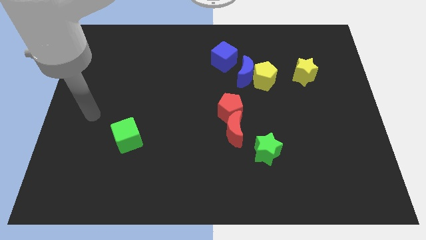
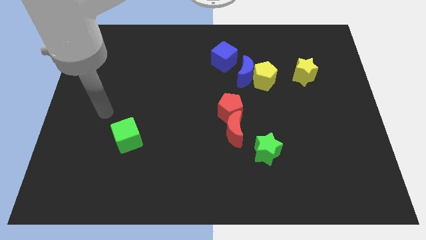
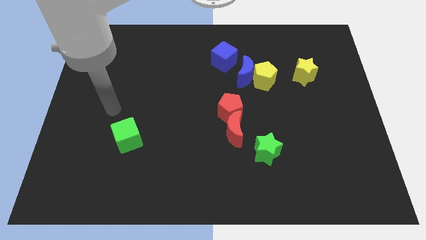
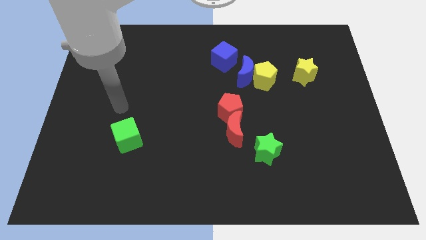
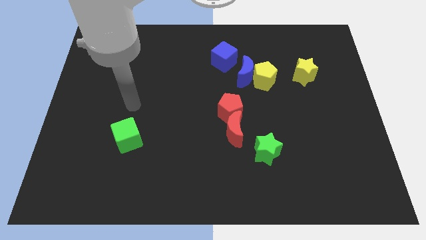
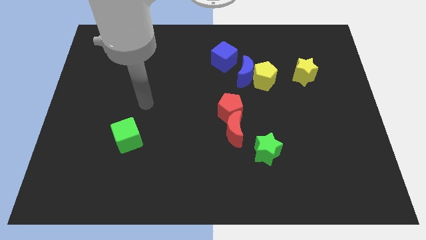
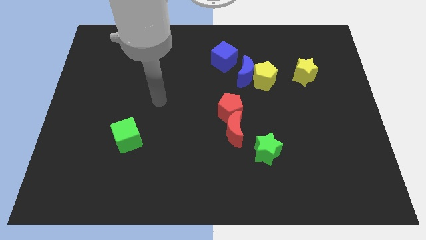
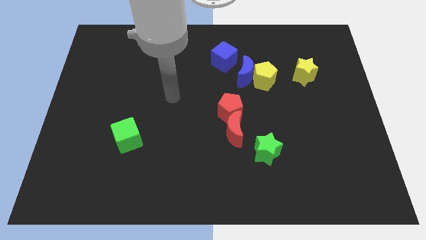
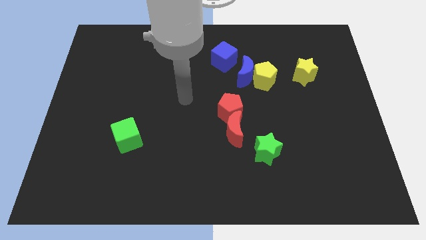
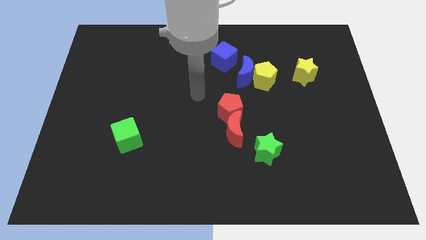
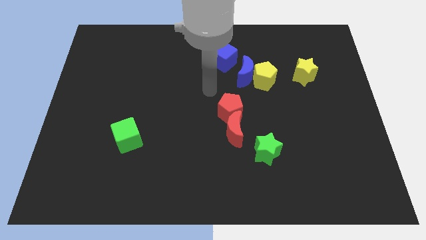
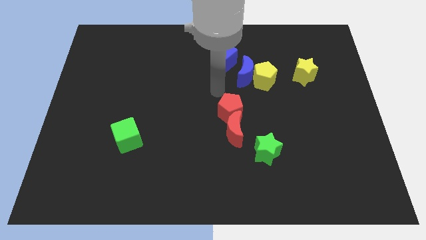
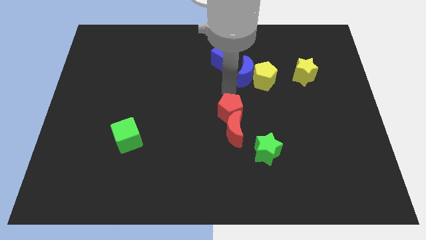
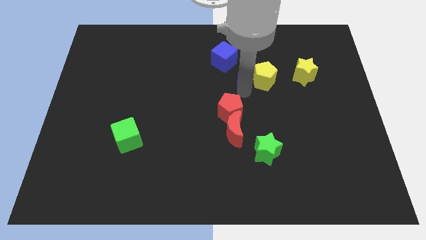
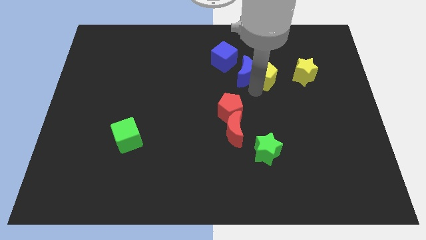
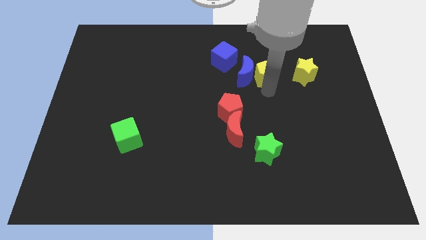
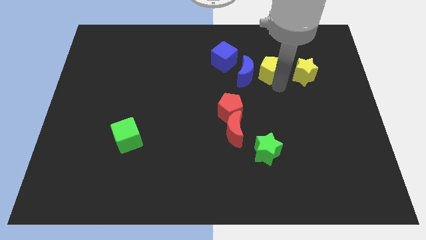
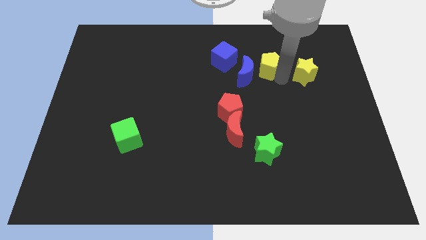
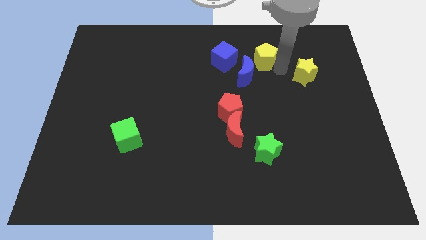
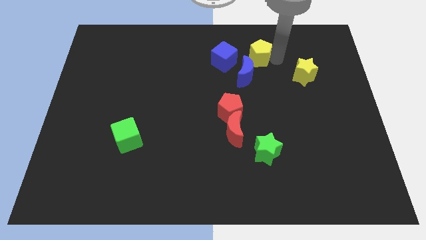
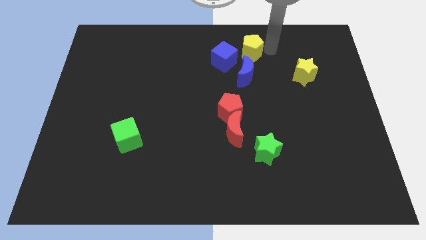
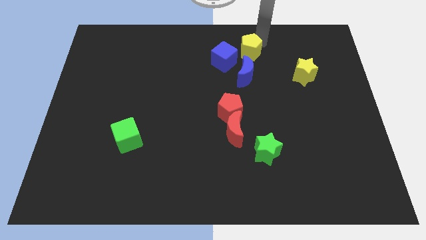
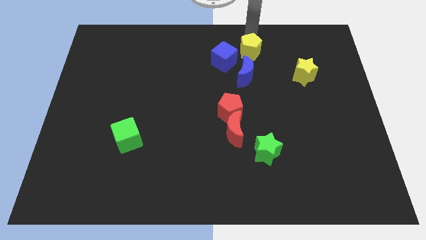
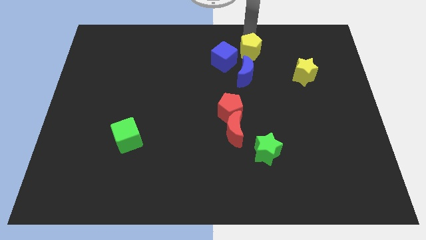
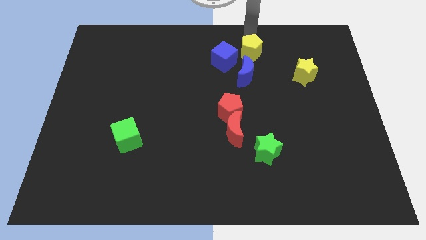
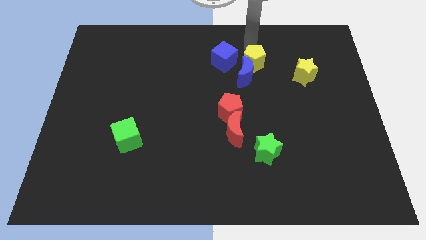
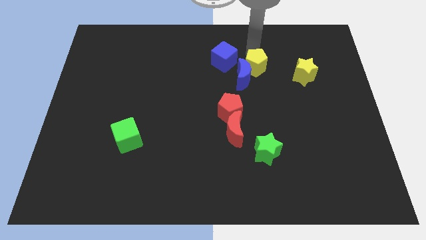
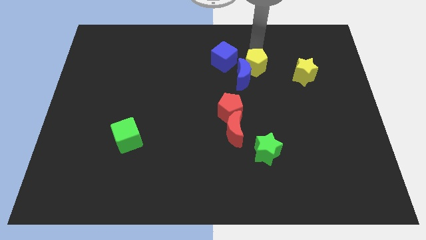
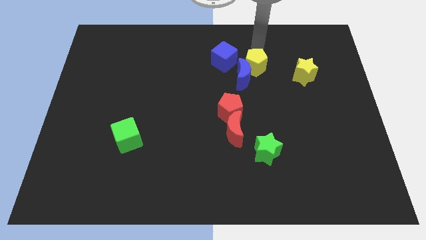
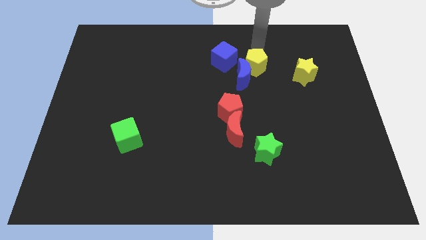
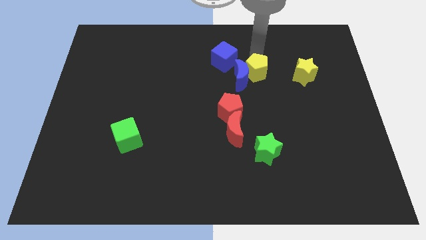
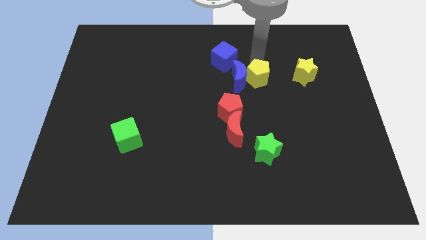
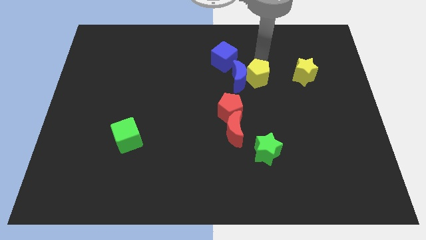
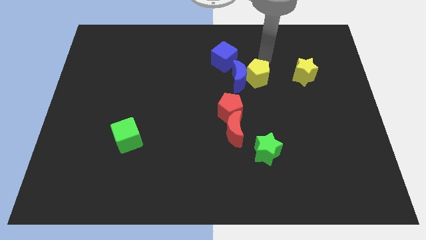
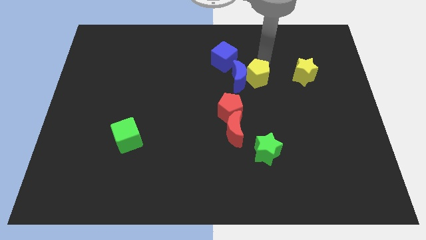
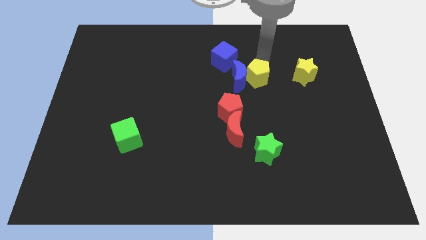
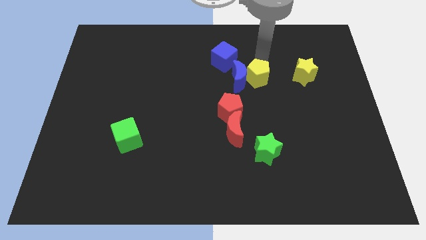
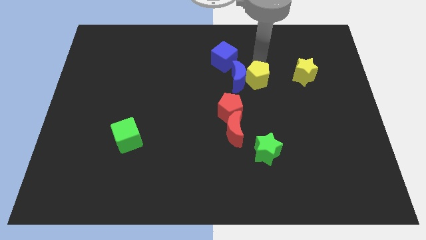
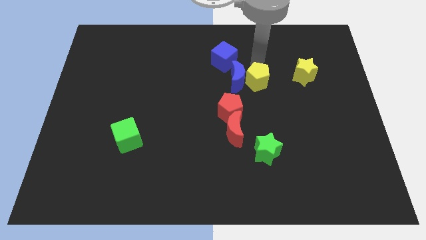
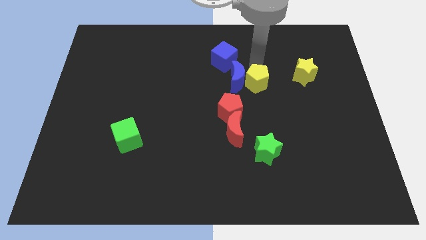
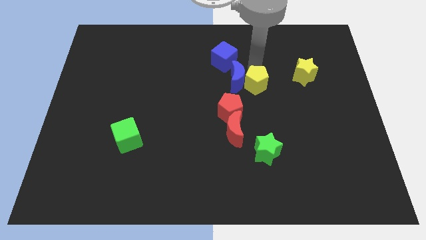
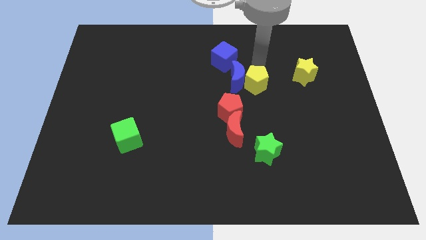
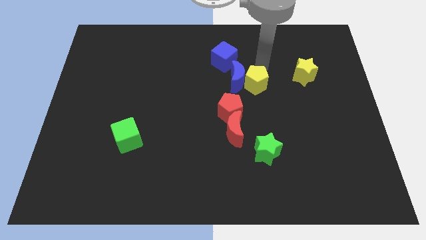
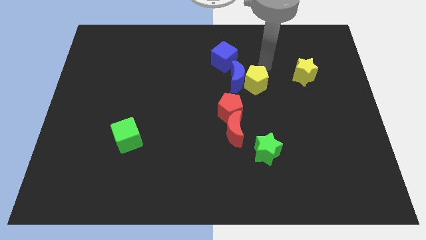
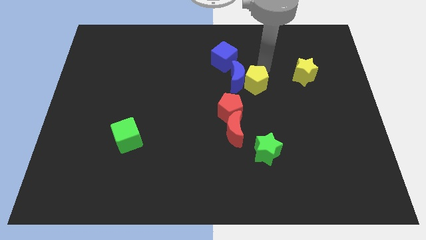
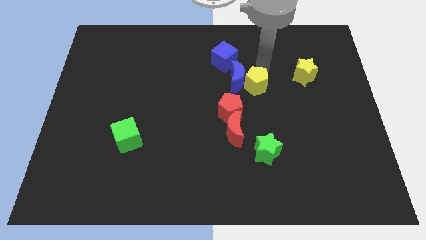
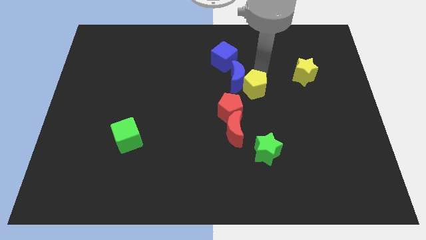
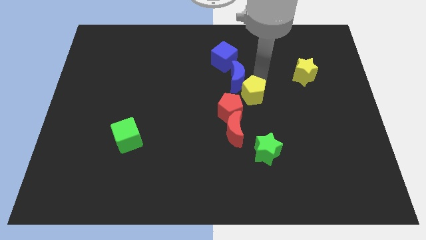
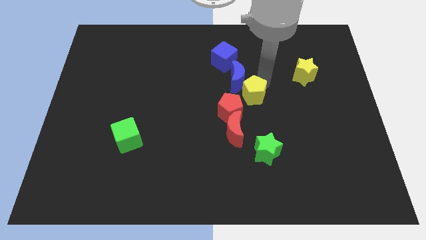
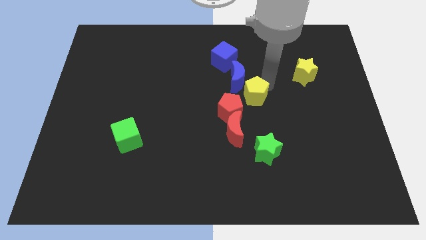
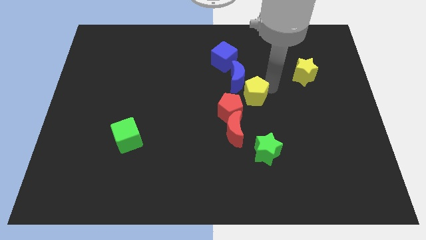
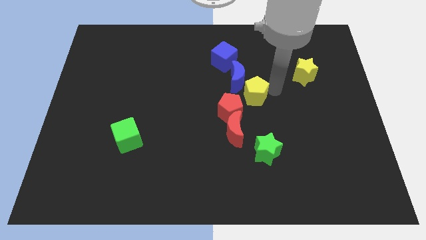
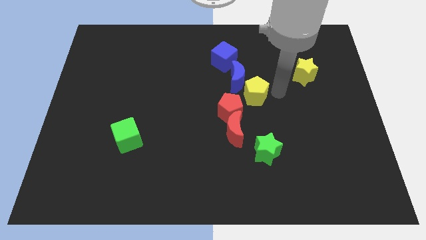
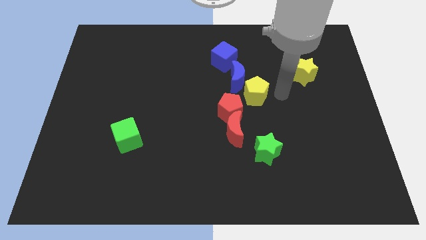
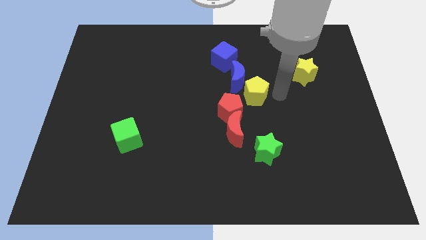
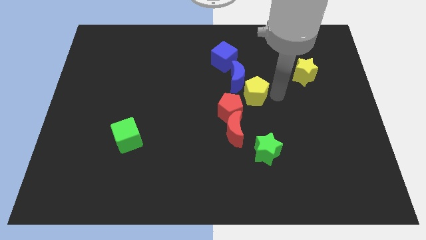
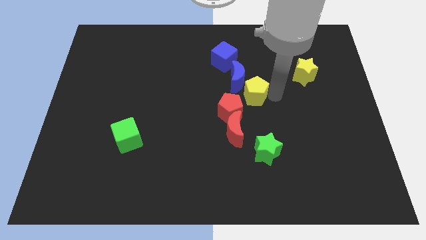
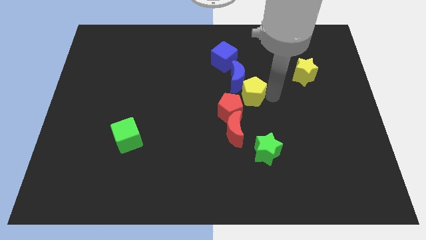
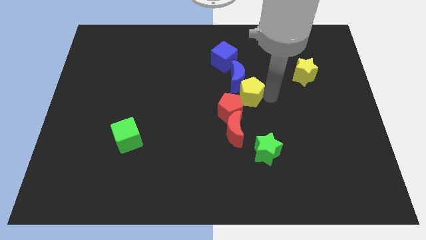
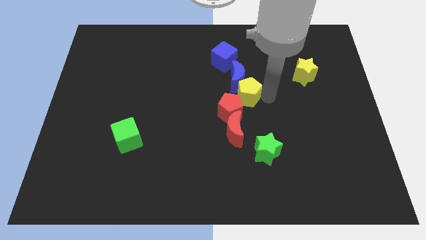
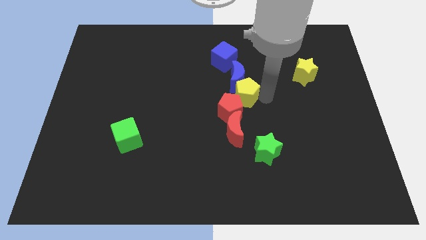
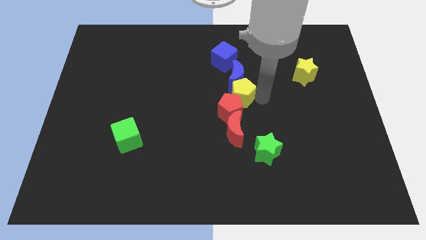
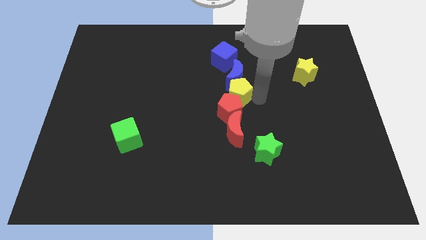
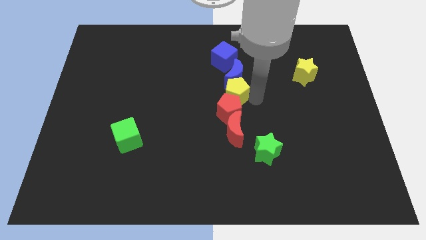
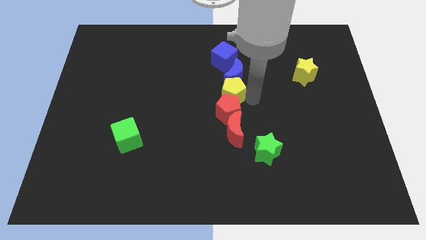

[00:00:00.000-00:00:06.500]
slightly push the yellow pentagon left

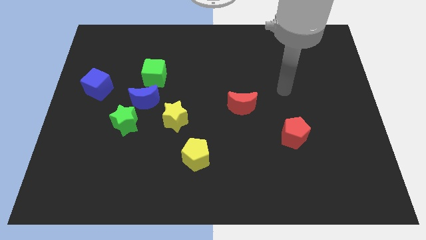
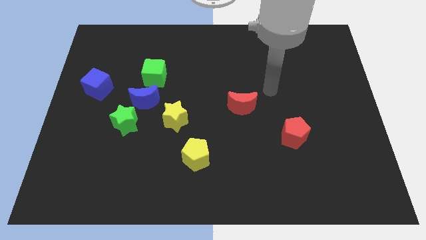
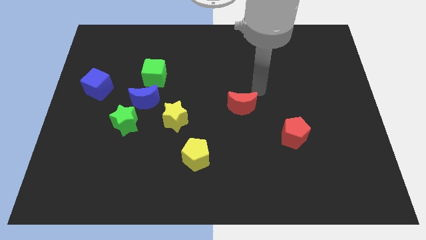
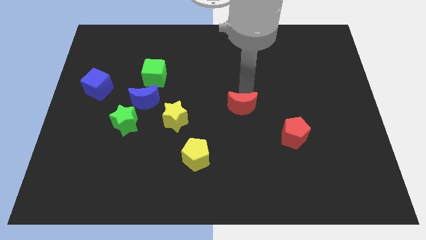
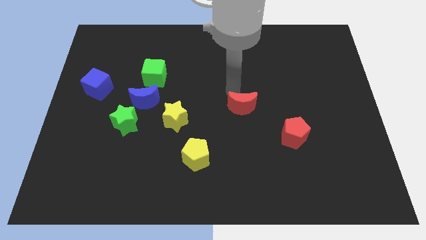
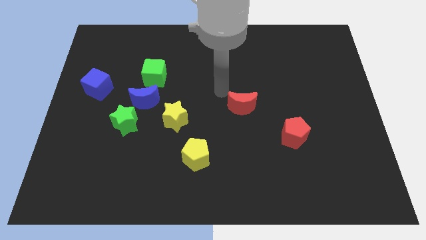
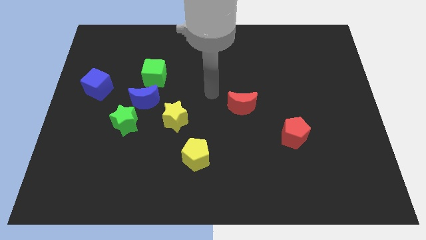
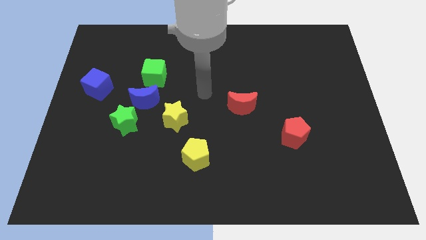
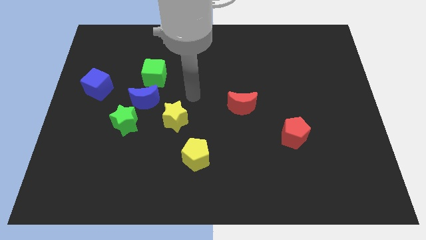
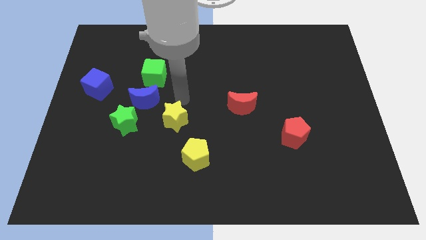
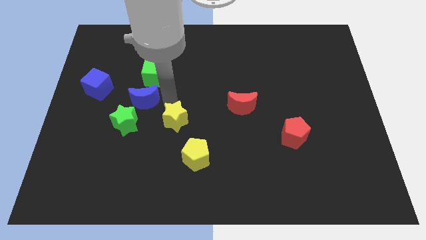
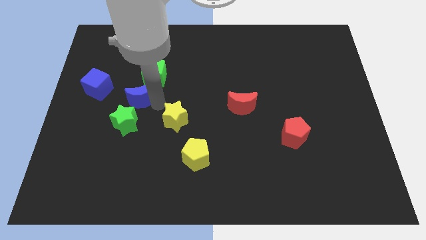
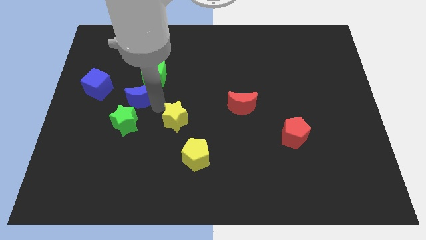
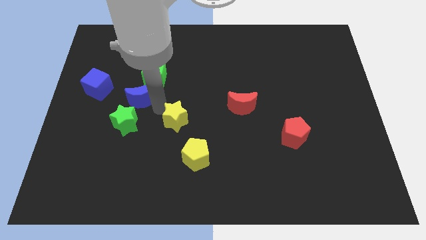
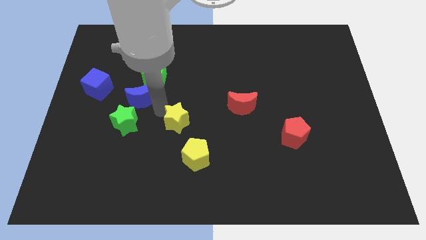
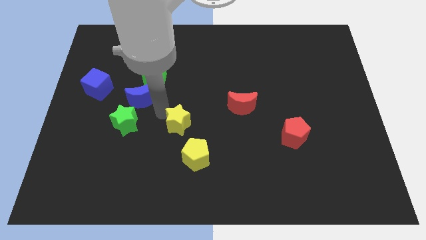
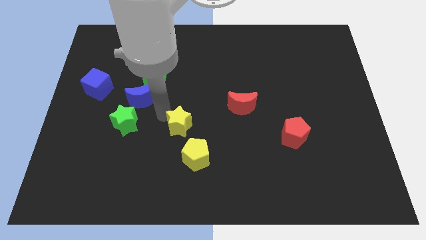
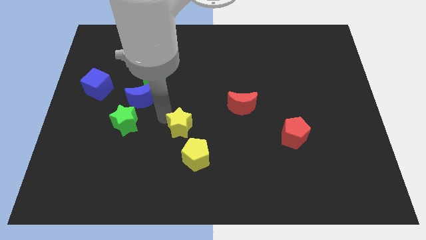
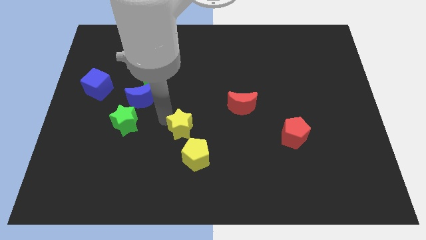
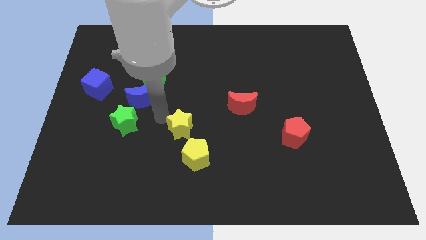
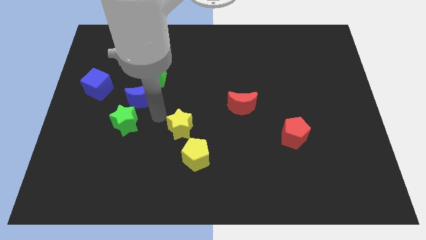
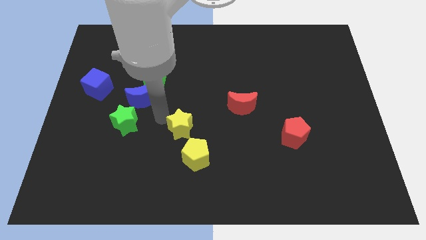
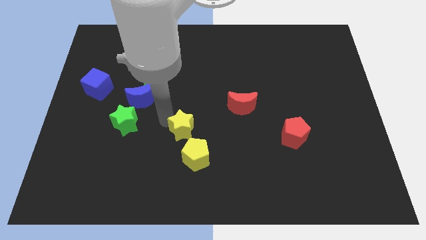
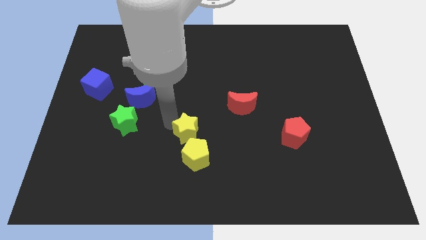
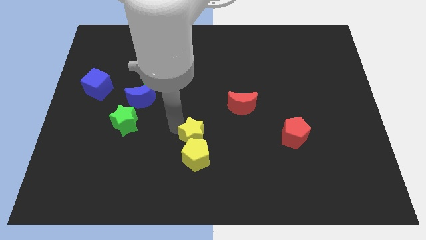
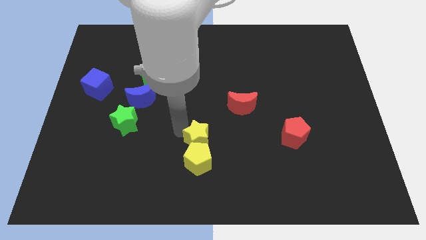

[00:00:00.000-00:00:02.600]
slide the yellow star down and then right a little
